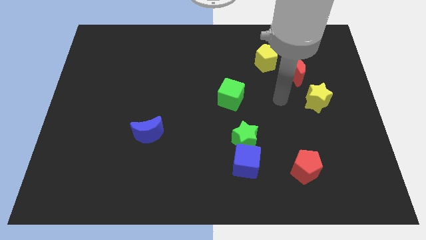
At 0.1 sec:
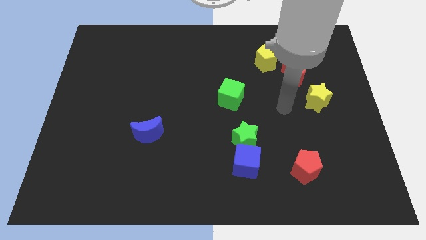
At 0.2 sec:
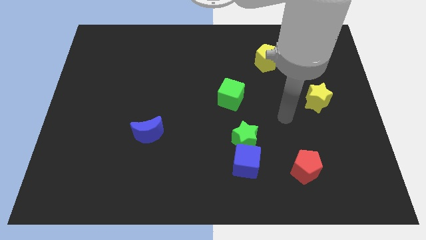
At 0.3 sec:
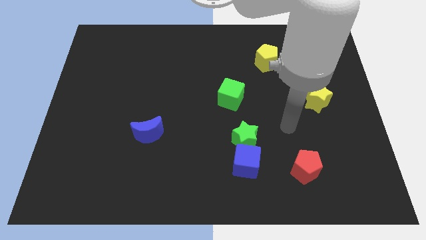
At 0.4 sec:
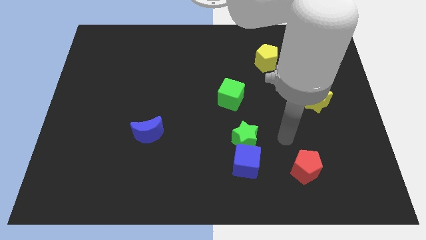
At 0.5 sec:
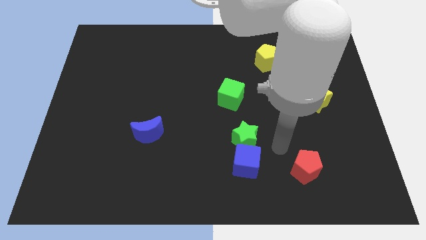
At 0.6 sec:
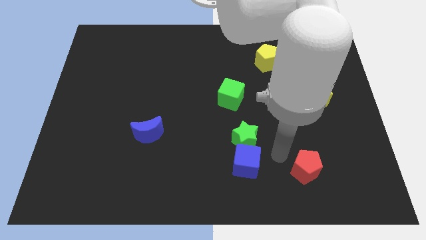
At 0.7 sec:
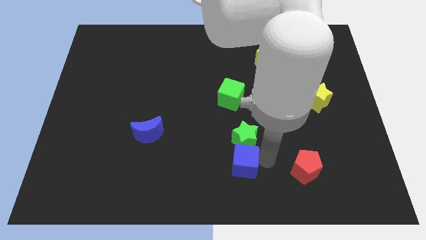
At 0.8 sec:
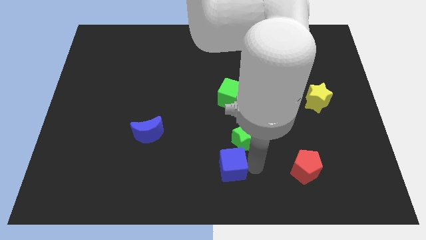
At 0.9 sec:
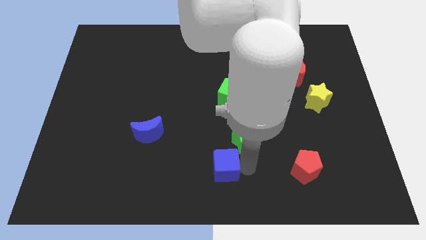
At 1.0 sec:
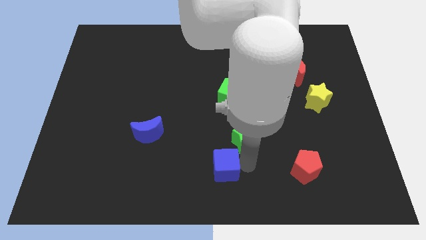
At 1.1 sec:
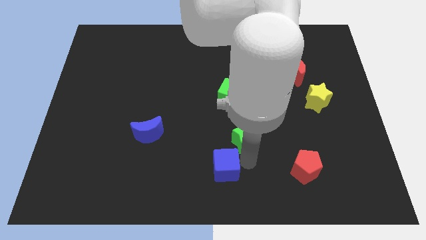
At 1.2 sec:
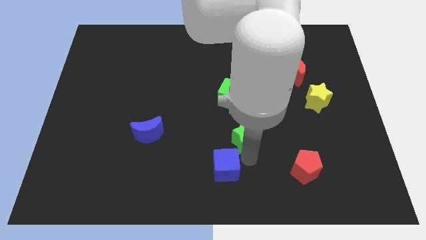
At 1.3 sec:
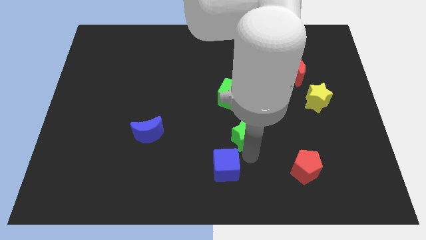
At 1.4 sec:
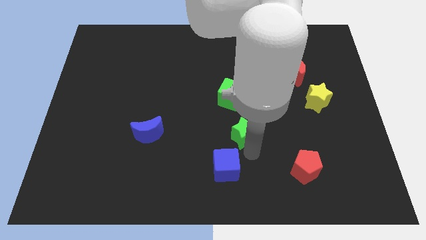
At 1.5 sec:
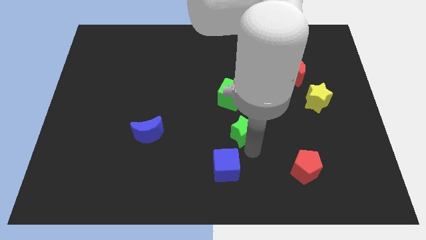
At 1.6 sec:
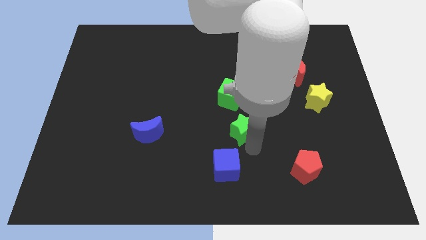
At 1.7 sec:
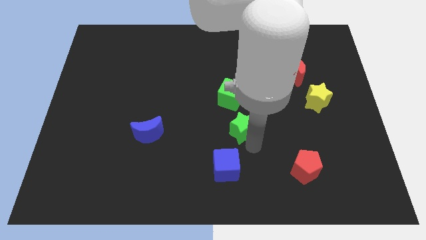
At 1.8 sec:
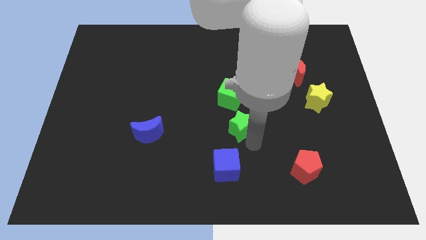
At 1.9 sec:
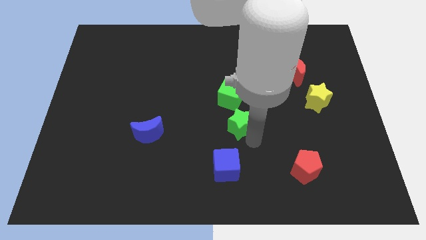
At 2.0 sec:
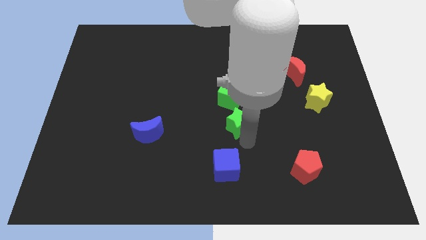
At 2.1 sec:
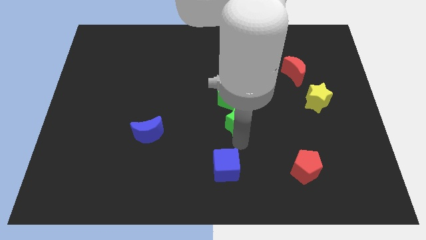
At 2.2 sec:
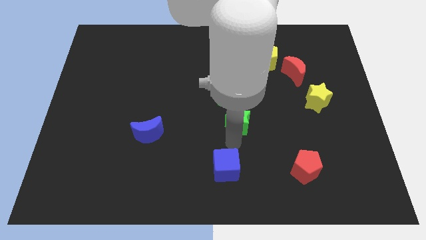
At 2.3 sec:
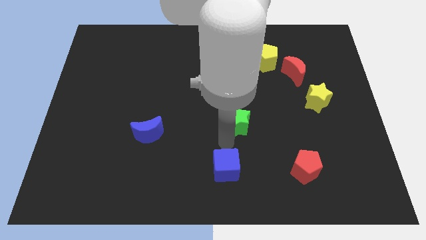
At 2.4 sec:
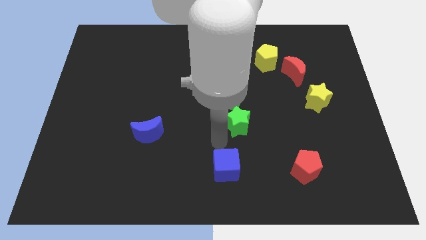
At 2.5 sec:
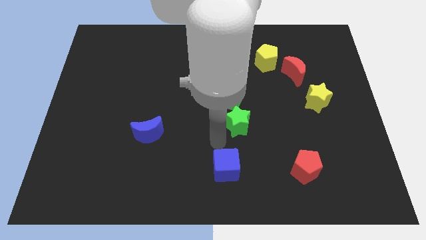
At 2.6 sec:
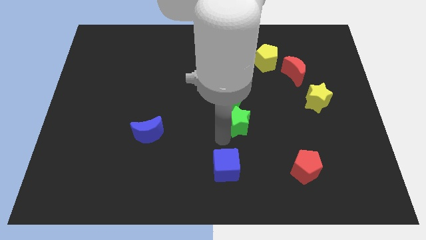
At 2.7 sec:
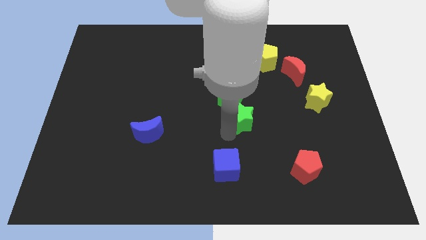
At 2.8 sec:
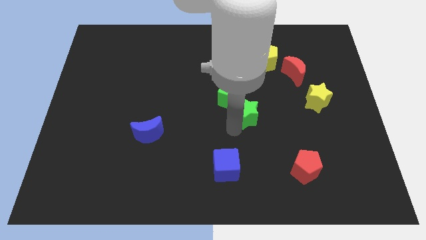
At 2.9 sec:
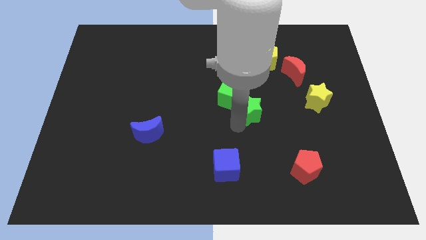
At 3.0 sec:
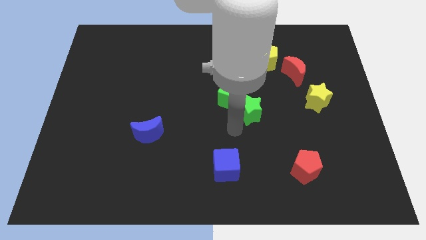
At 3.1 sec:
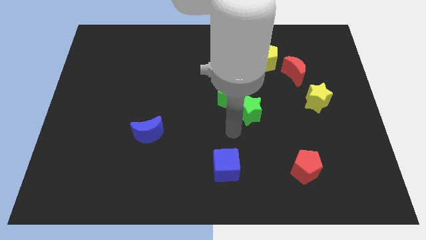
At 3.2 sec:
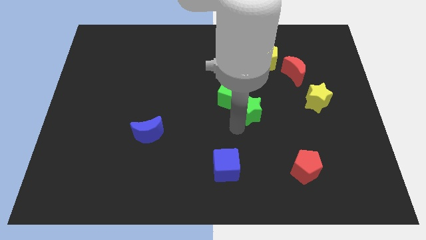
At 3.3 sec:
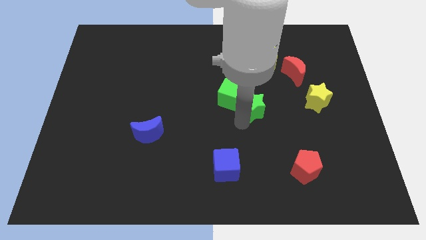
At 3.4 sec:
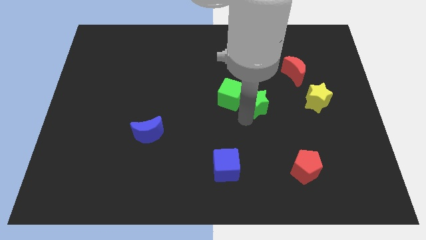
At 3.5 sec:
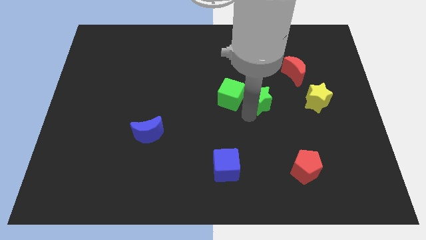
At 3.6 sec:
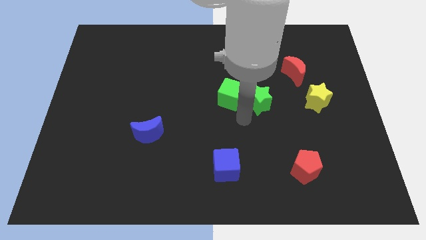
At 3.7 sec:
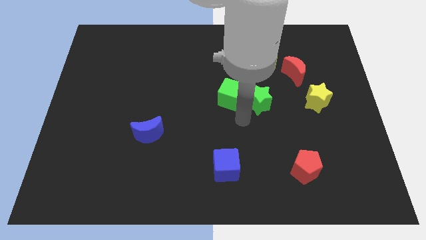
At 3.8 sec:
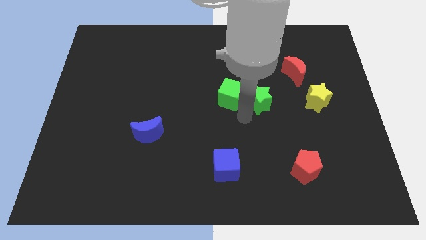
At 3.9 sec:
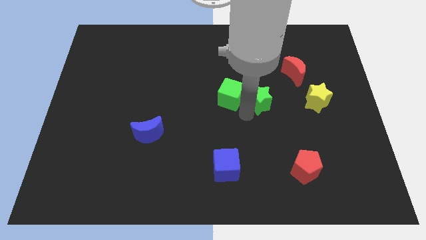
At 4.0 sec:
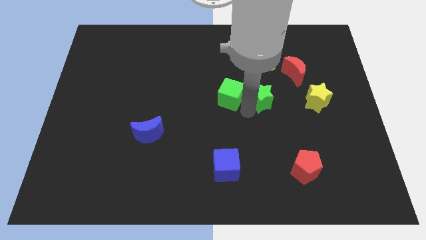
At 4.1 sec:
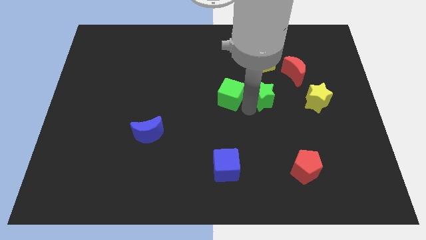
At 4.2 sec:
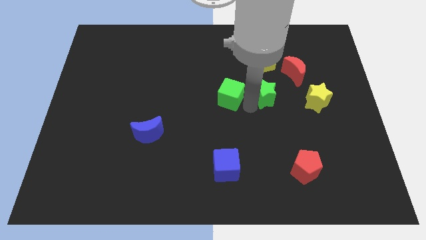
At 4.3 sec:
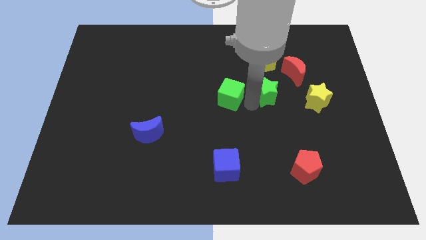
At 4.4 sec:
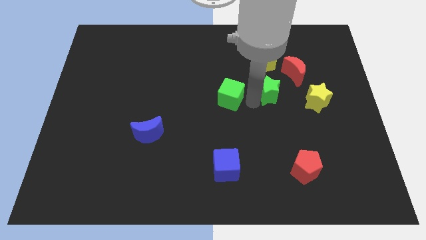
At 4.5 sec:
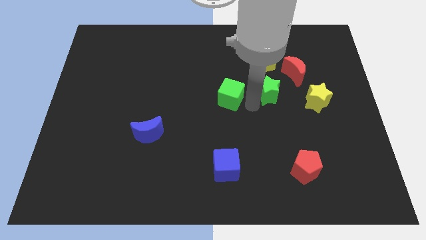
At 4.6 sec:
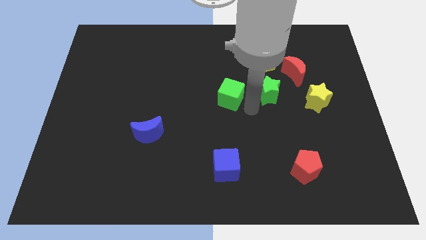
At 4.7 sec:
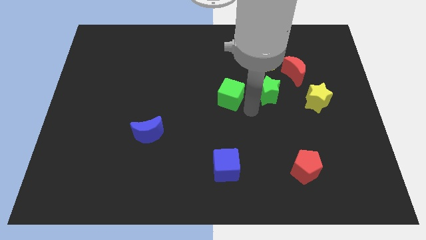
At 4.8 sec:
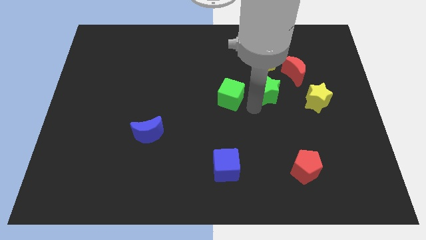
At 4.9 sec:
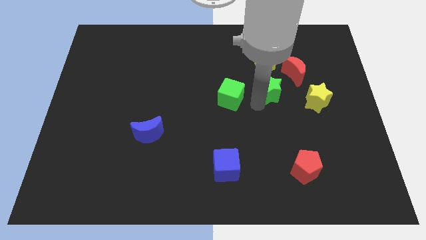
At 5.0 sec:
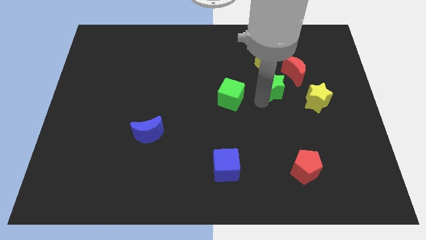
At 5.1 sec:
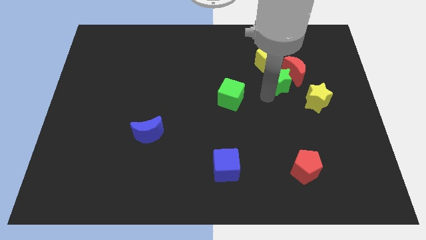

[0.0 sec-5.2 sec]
move the green star to the red moon

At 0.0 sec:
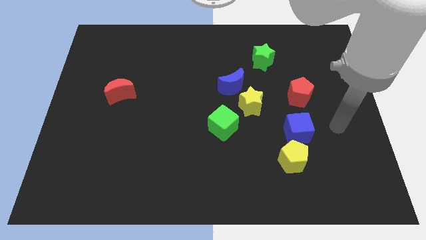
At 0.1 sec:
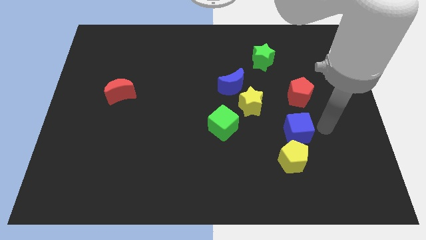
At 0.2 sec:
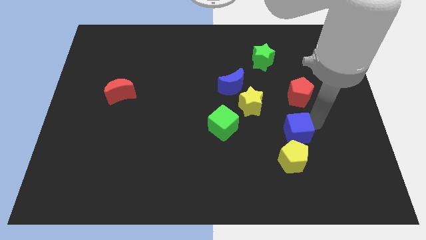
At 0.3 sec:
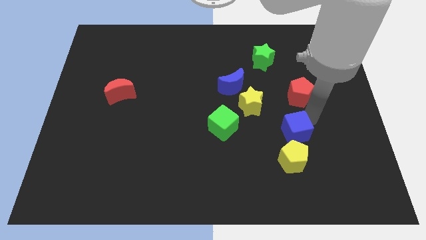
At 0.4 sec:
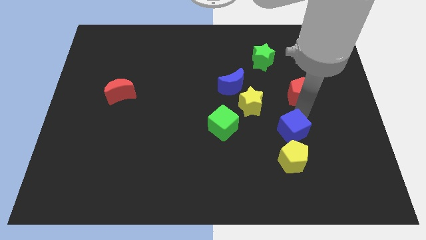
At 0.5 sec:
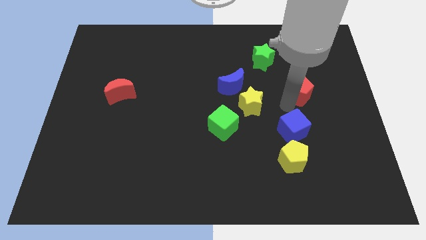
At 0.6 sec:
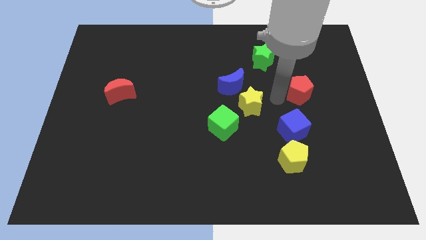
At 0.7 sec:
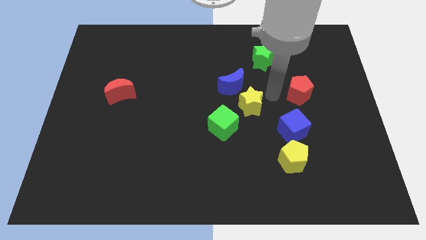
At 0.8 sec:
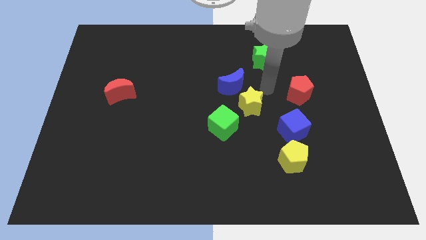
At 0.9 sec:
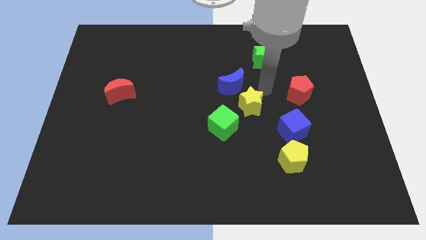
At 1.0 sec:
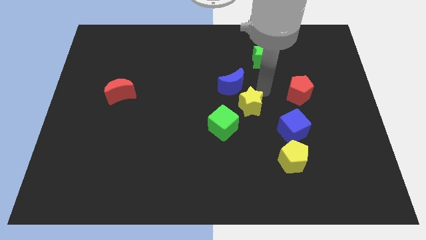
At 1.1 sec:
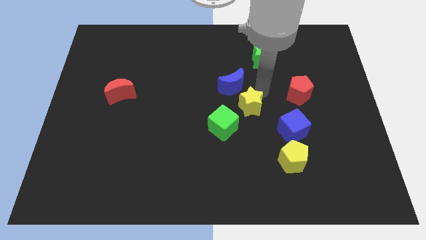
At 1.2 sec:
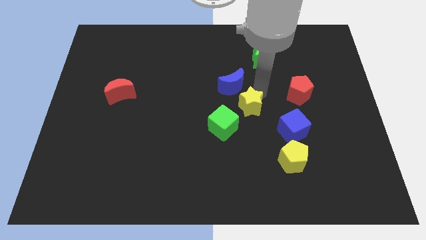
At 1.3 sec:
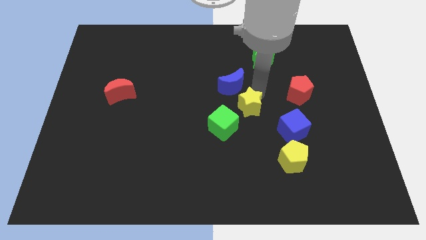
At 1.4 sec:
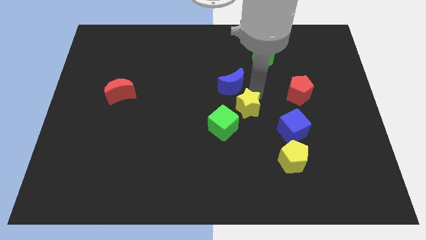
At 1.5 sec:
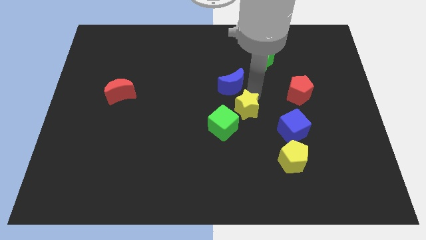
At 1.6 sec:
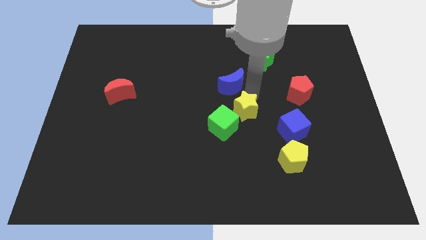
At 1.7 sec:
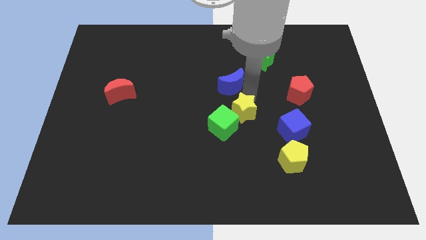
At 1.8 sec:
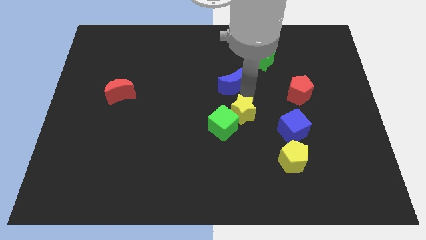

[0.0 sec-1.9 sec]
slide the yellow star towards the green cube

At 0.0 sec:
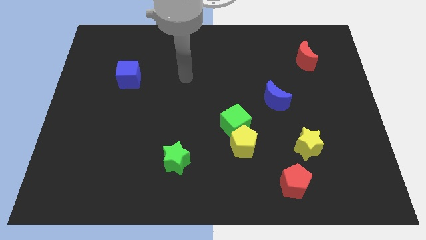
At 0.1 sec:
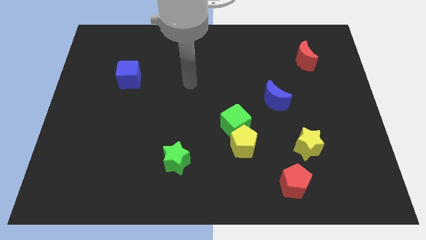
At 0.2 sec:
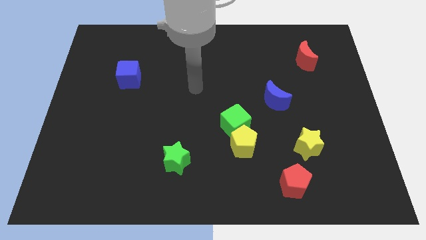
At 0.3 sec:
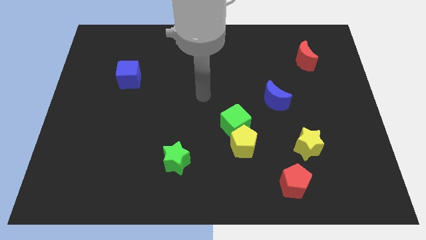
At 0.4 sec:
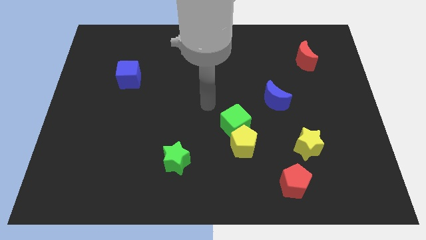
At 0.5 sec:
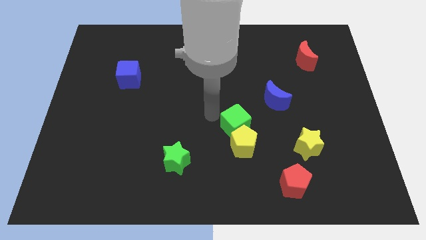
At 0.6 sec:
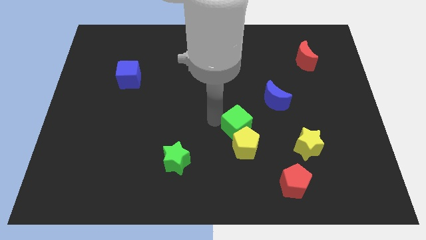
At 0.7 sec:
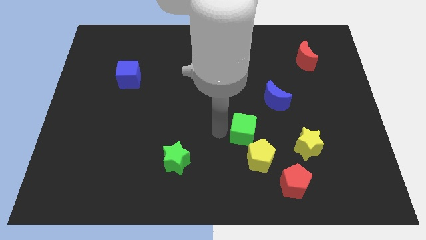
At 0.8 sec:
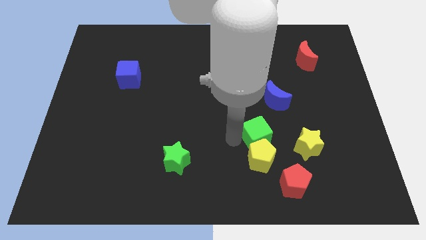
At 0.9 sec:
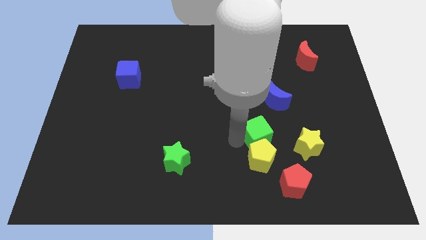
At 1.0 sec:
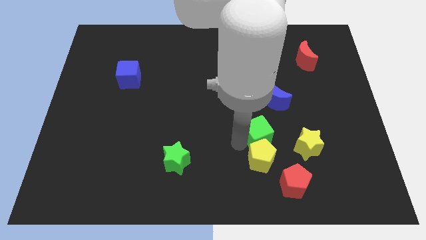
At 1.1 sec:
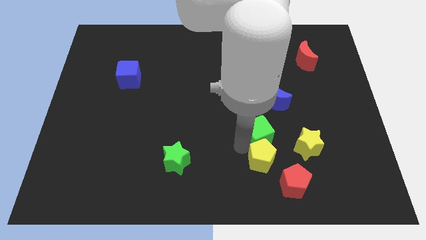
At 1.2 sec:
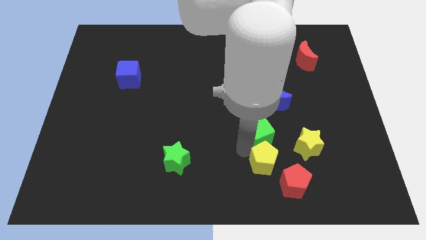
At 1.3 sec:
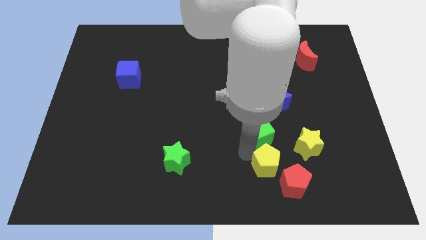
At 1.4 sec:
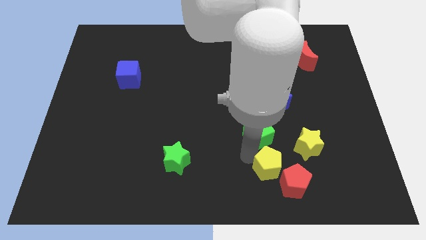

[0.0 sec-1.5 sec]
push the yellow pentagon to the red pentagon

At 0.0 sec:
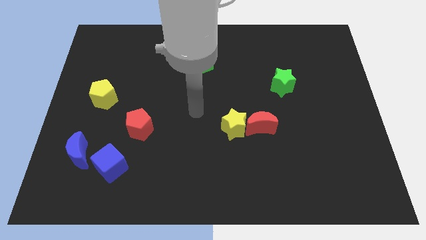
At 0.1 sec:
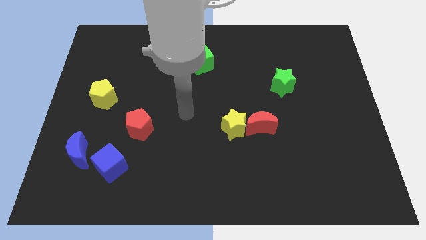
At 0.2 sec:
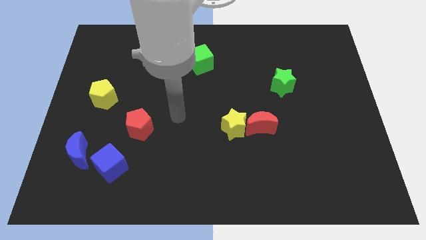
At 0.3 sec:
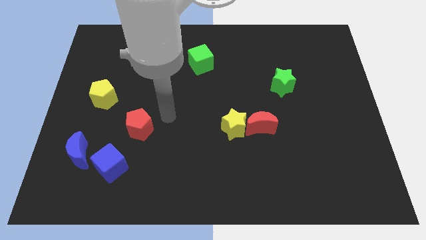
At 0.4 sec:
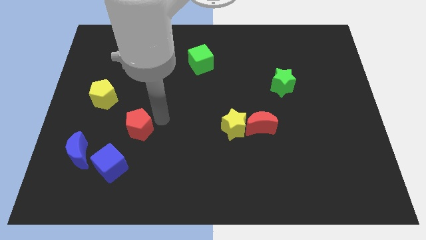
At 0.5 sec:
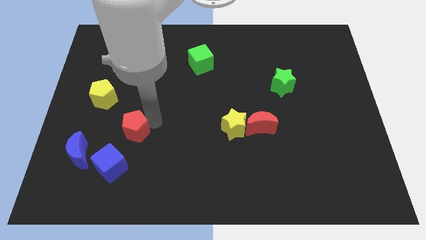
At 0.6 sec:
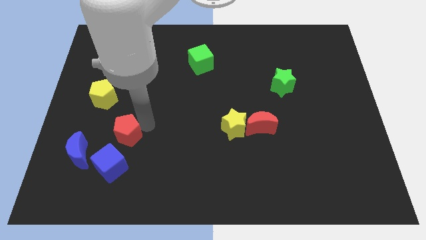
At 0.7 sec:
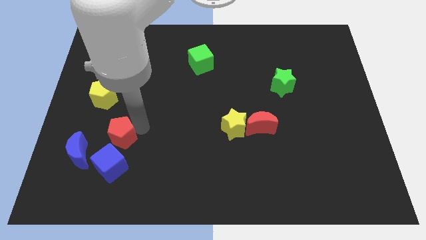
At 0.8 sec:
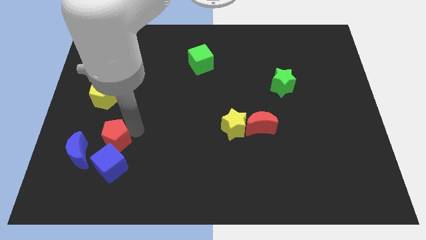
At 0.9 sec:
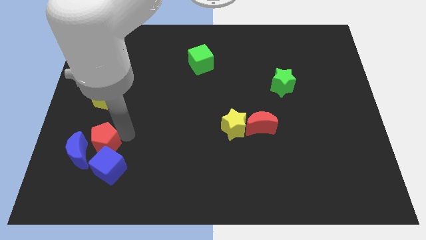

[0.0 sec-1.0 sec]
move the red pentagon close to the blue moon
